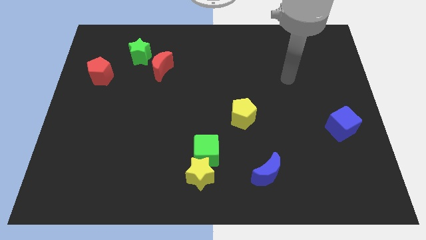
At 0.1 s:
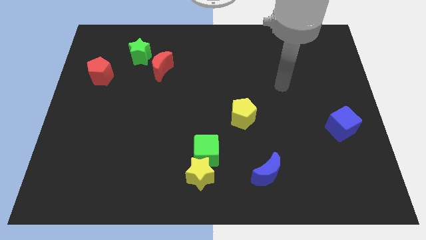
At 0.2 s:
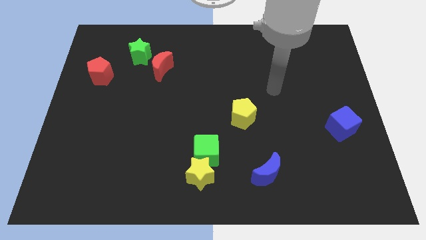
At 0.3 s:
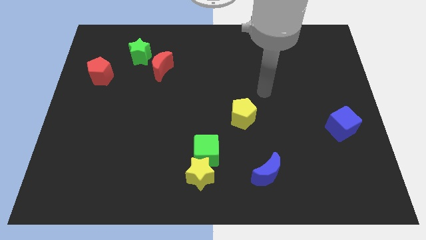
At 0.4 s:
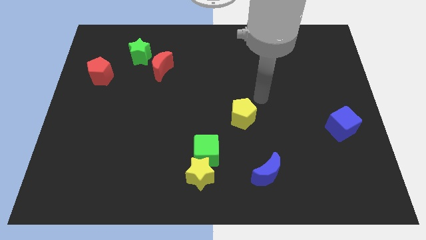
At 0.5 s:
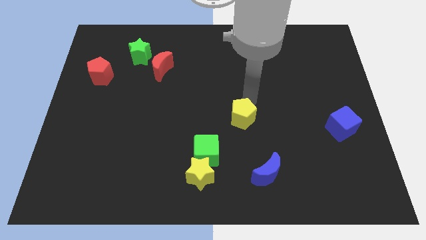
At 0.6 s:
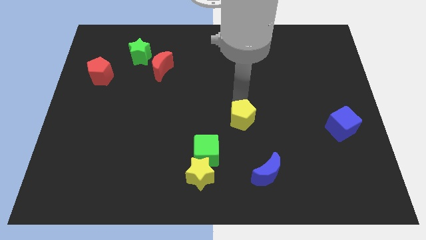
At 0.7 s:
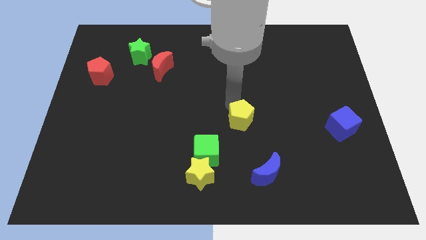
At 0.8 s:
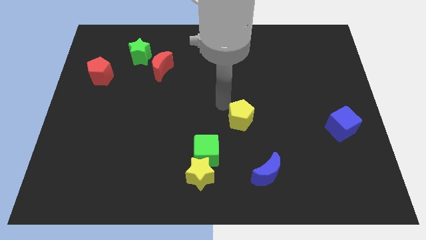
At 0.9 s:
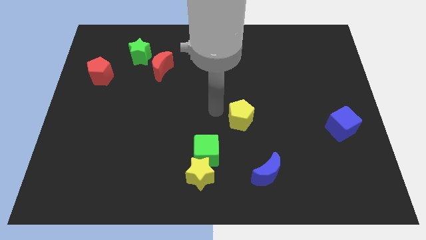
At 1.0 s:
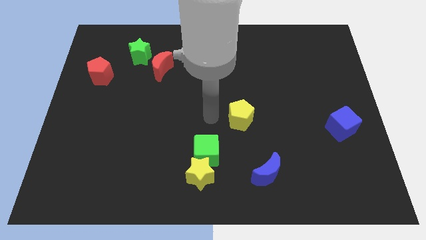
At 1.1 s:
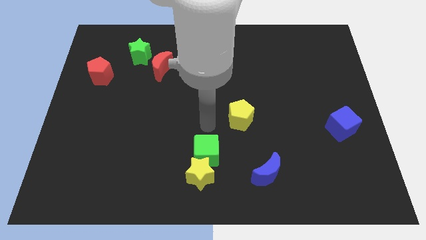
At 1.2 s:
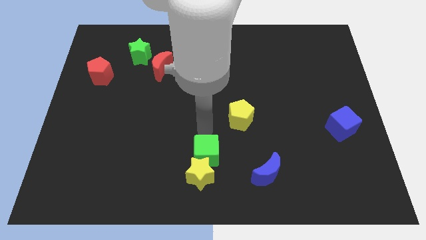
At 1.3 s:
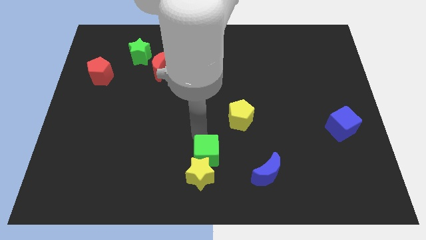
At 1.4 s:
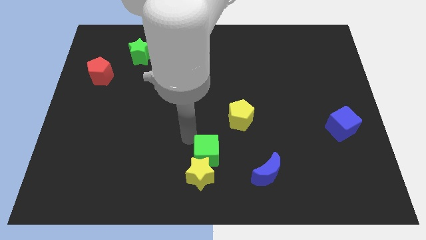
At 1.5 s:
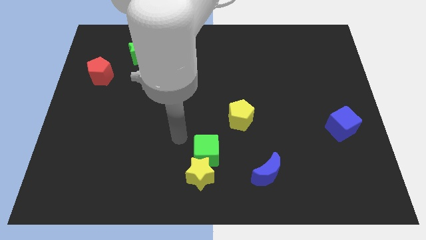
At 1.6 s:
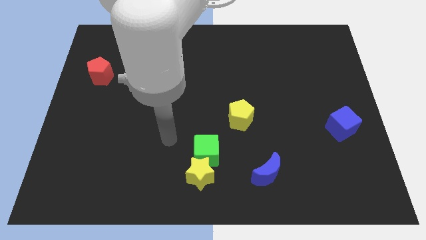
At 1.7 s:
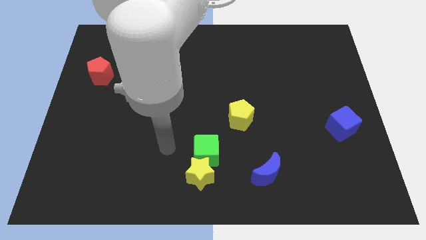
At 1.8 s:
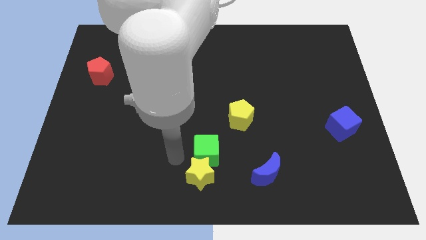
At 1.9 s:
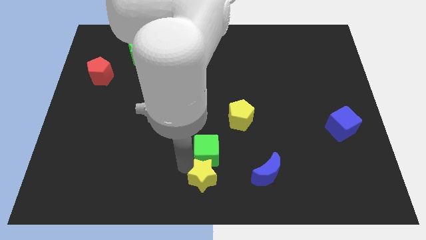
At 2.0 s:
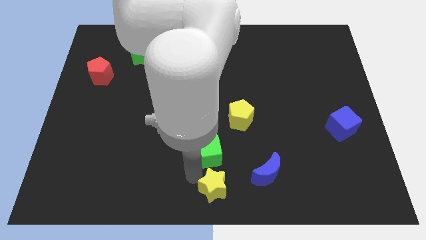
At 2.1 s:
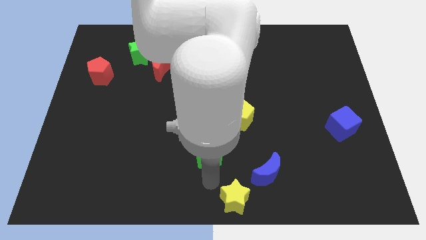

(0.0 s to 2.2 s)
move the green cube away from the yellow star

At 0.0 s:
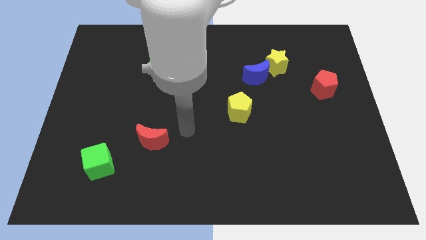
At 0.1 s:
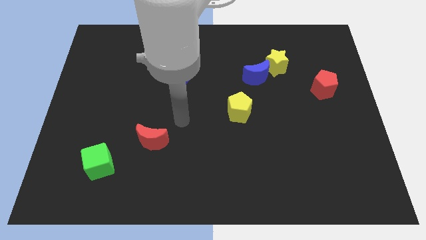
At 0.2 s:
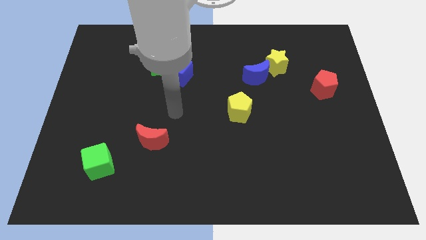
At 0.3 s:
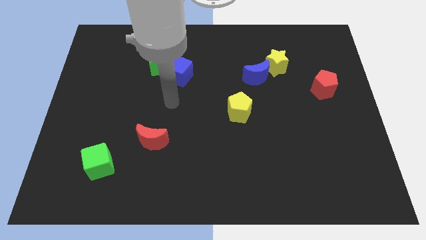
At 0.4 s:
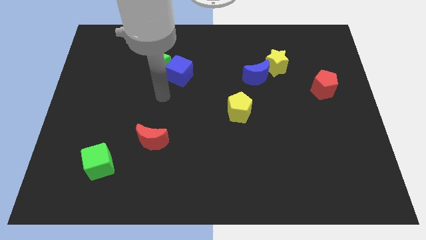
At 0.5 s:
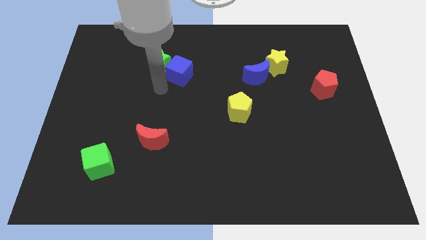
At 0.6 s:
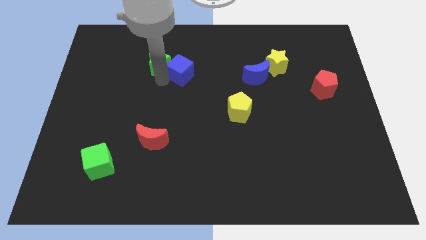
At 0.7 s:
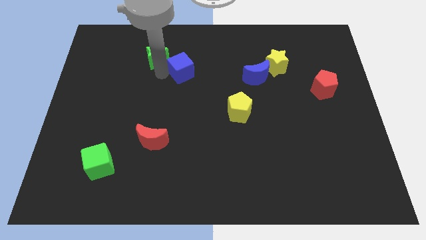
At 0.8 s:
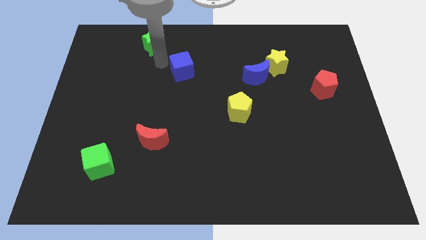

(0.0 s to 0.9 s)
separate the blue cube from the green star

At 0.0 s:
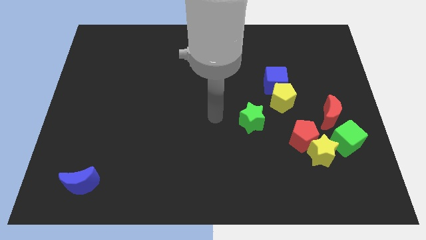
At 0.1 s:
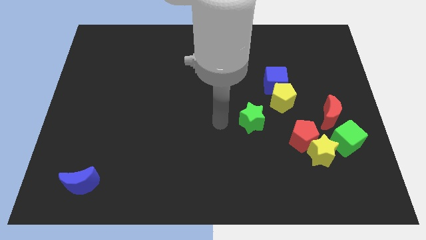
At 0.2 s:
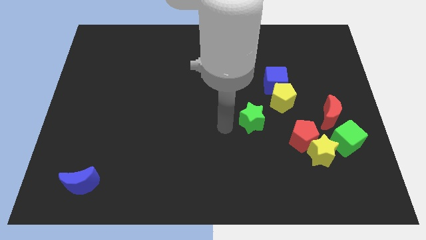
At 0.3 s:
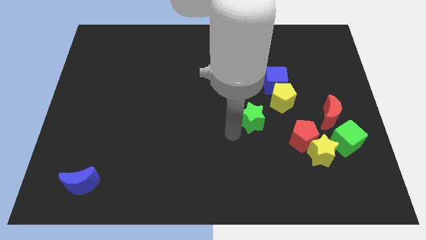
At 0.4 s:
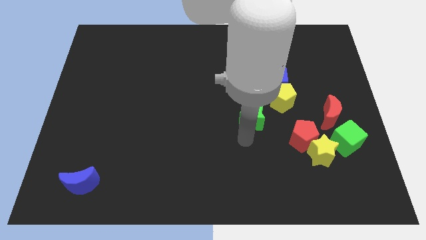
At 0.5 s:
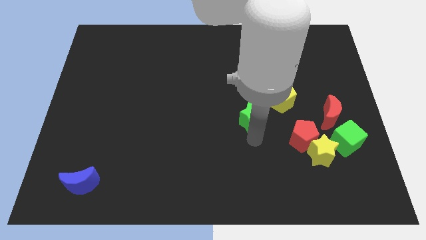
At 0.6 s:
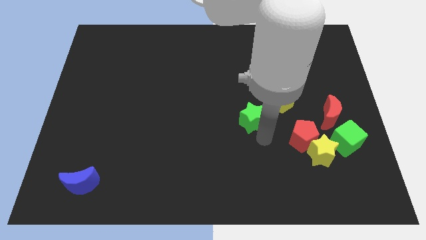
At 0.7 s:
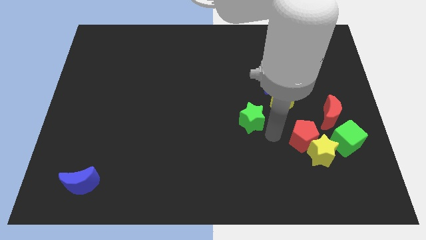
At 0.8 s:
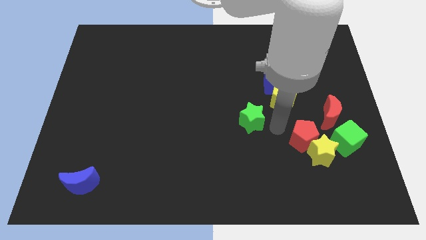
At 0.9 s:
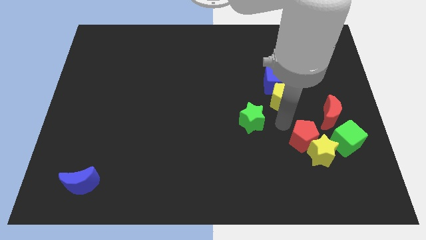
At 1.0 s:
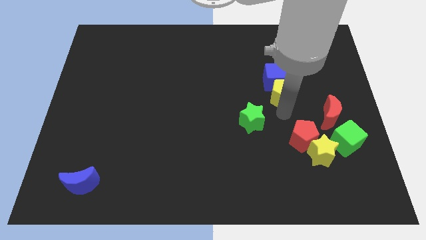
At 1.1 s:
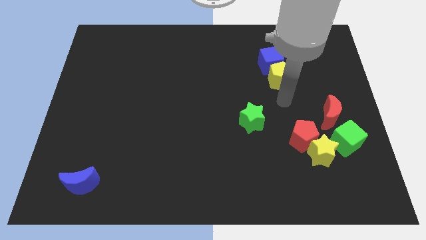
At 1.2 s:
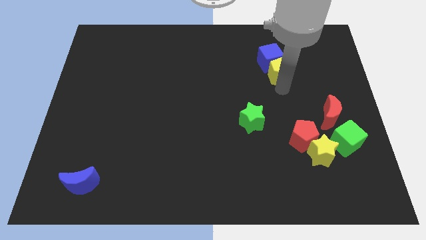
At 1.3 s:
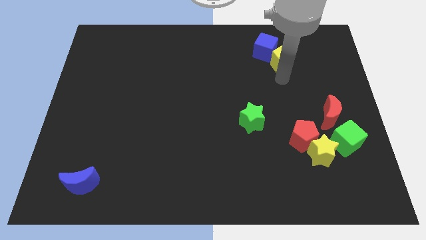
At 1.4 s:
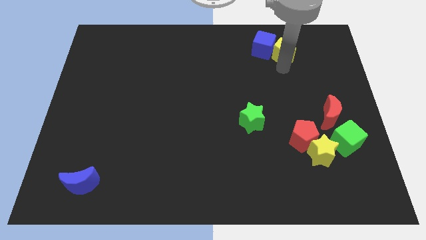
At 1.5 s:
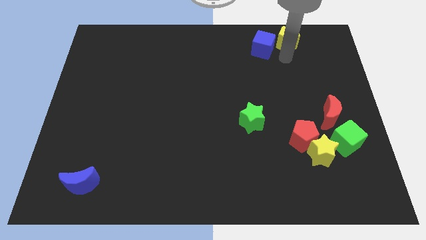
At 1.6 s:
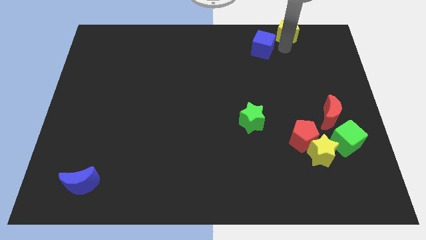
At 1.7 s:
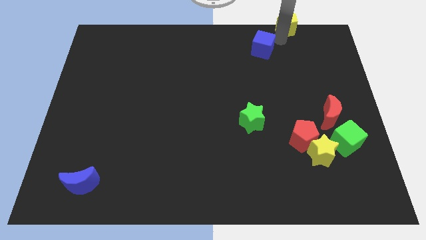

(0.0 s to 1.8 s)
pull the blue cube apart from the yellow pentagon

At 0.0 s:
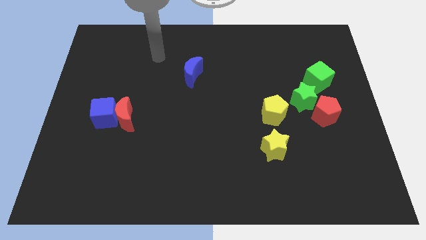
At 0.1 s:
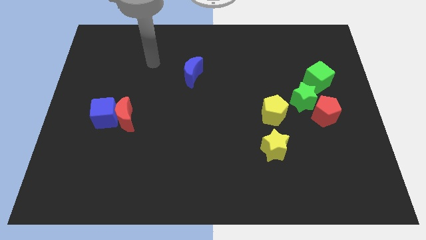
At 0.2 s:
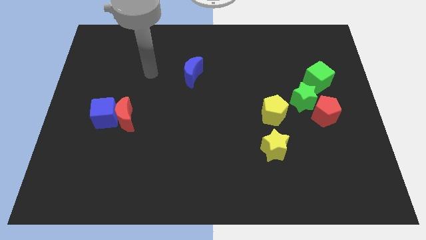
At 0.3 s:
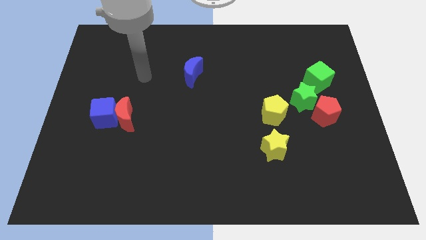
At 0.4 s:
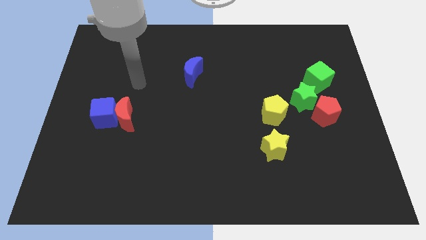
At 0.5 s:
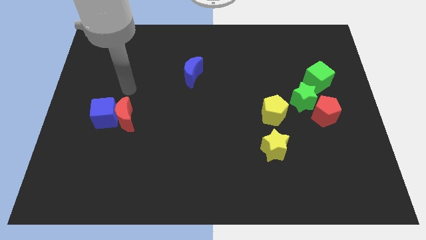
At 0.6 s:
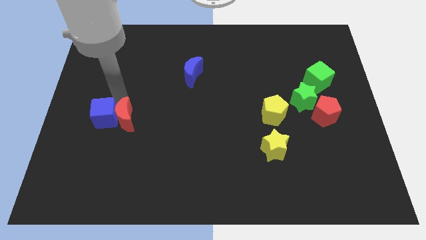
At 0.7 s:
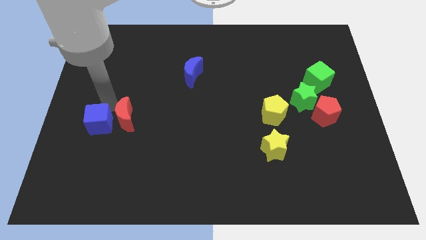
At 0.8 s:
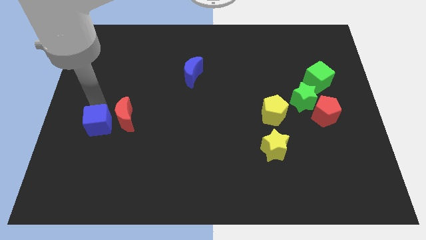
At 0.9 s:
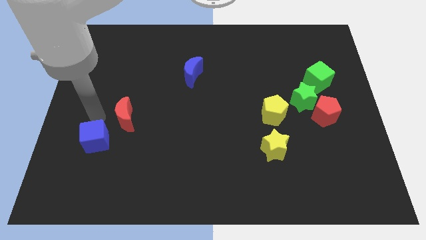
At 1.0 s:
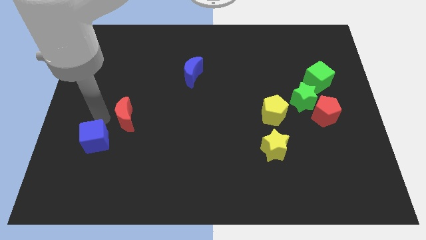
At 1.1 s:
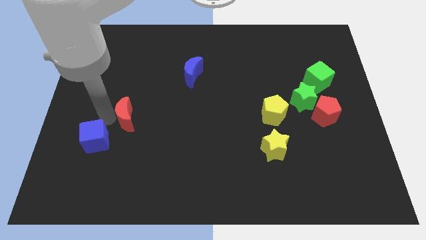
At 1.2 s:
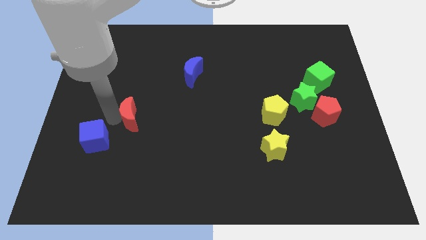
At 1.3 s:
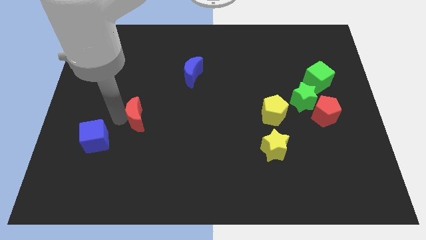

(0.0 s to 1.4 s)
move the red moon away from the blue cube

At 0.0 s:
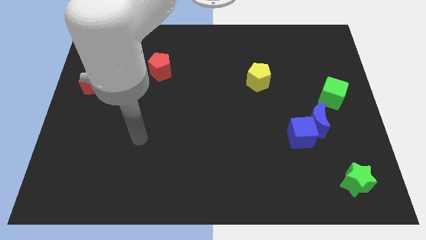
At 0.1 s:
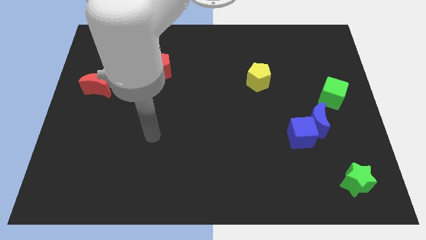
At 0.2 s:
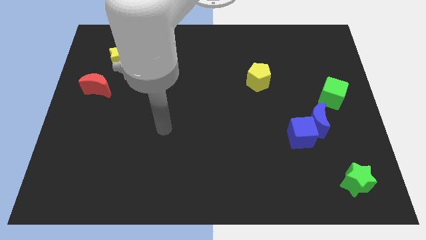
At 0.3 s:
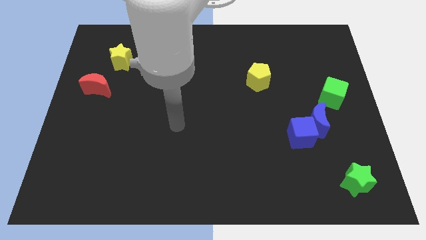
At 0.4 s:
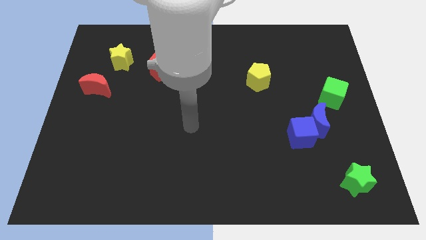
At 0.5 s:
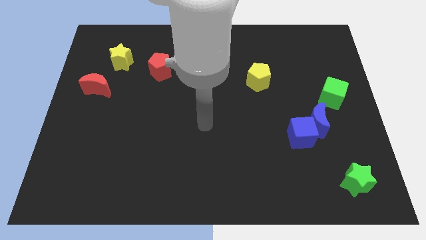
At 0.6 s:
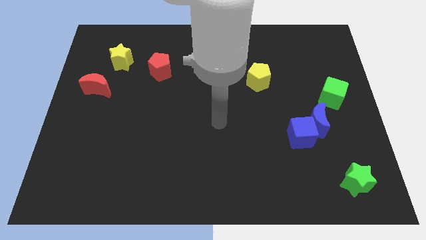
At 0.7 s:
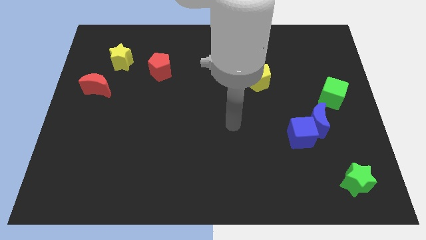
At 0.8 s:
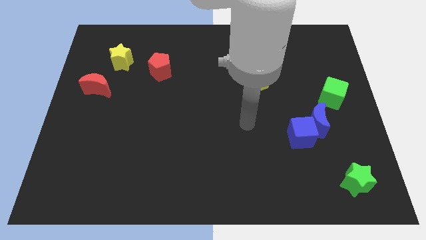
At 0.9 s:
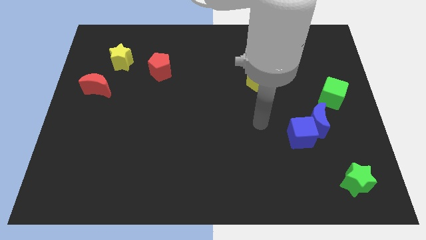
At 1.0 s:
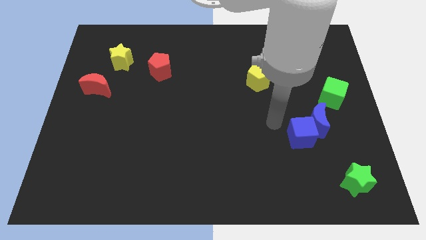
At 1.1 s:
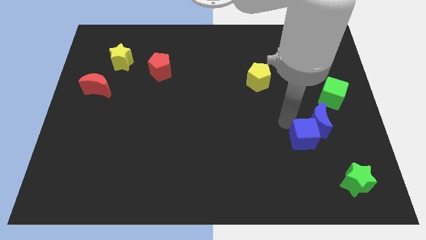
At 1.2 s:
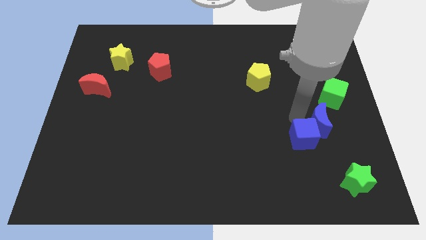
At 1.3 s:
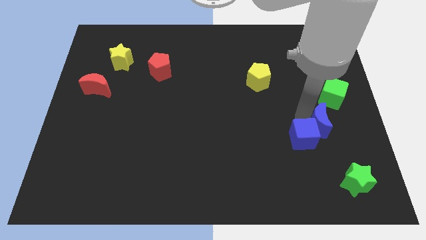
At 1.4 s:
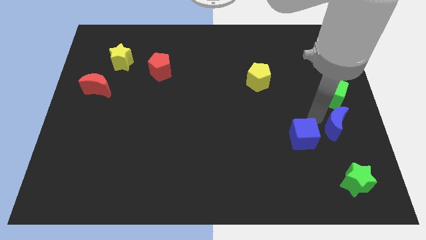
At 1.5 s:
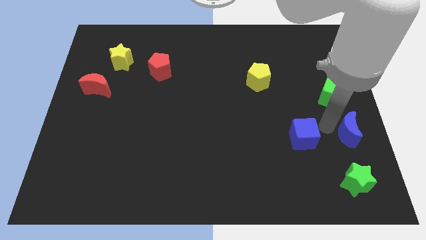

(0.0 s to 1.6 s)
move the blue cube away from the blue moon

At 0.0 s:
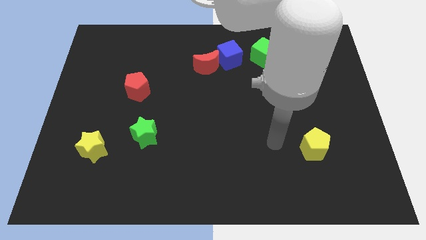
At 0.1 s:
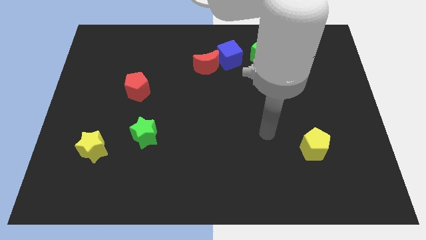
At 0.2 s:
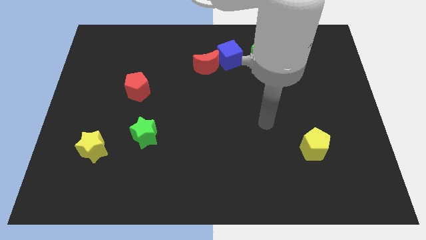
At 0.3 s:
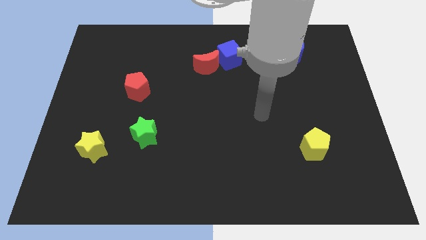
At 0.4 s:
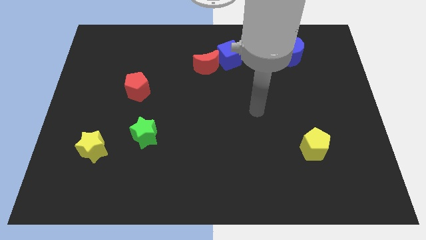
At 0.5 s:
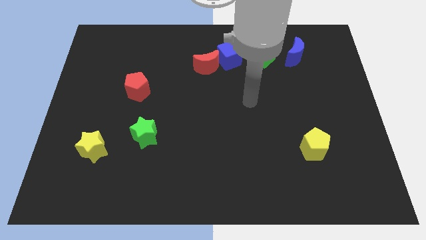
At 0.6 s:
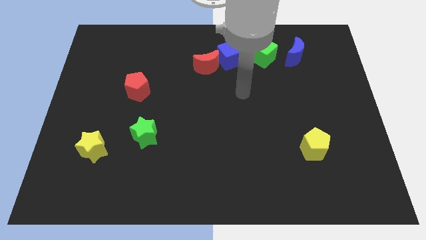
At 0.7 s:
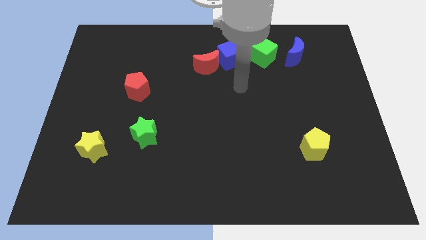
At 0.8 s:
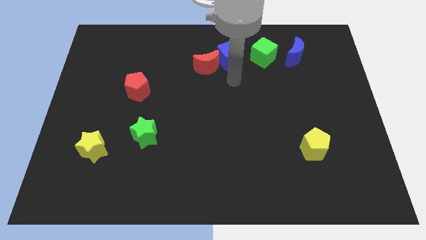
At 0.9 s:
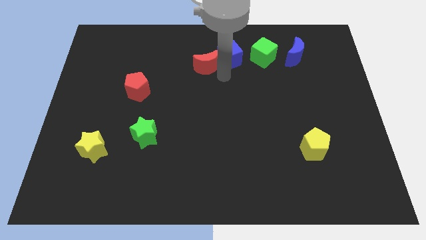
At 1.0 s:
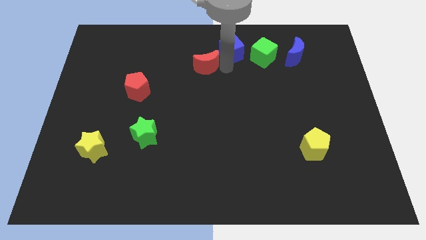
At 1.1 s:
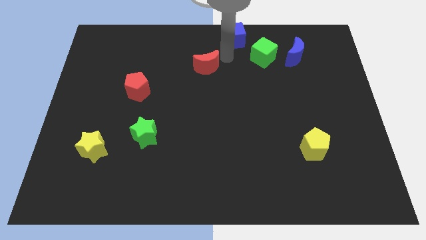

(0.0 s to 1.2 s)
separate the red moon from the blue cube

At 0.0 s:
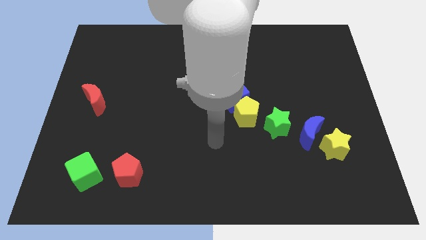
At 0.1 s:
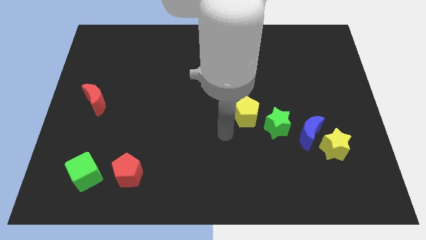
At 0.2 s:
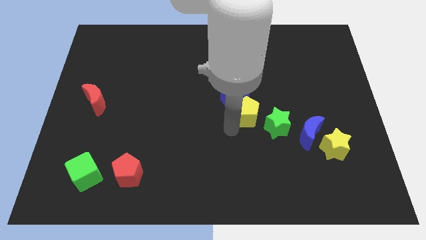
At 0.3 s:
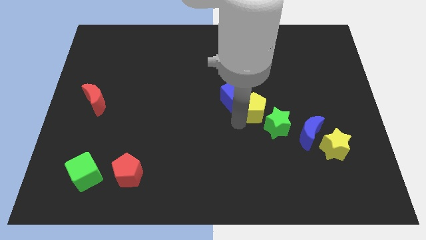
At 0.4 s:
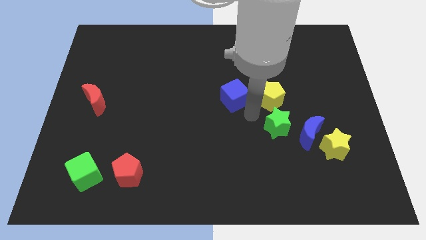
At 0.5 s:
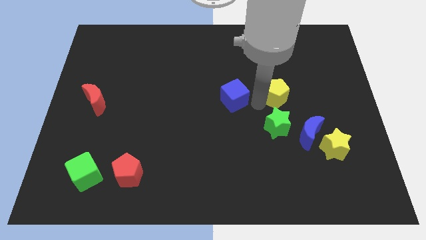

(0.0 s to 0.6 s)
separate the blue cube from the yellow pentagon
